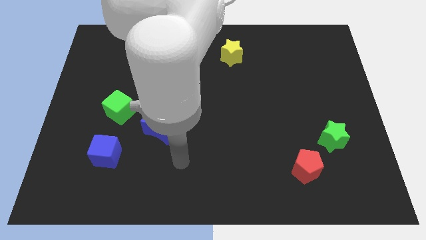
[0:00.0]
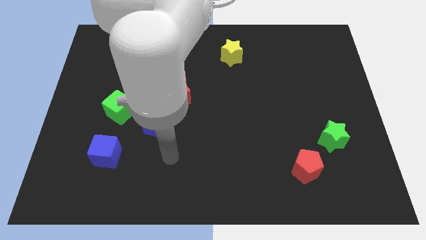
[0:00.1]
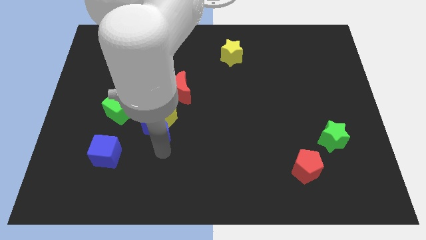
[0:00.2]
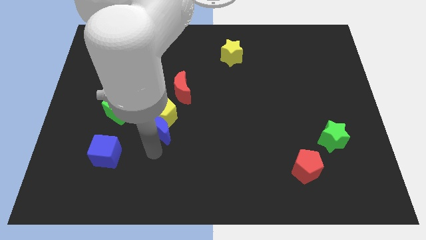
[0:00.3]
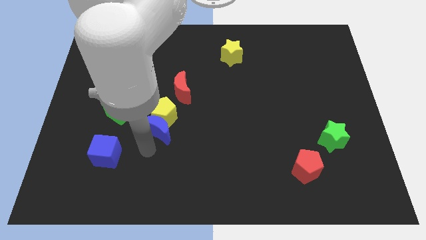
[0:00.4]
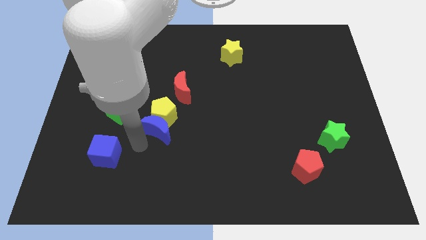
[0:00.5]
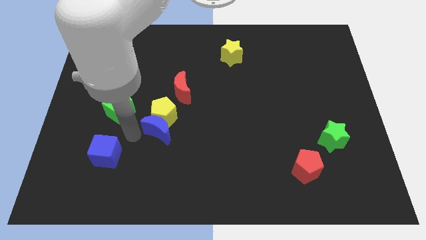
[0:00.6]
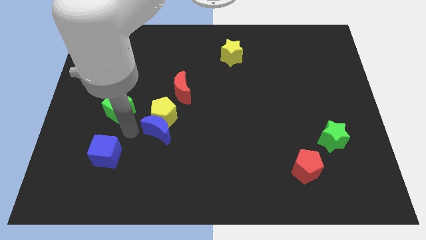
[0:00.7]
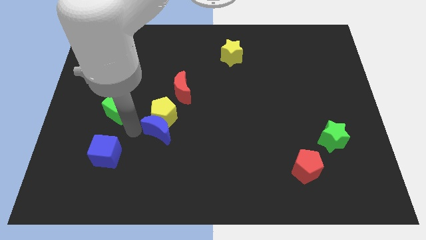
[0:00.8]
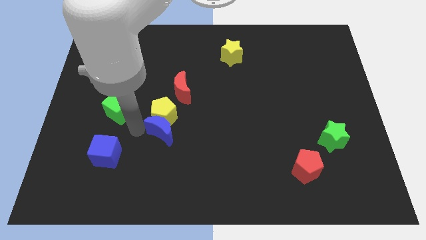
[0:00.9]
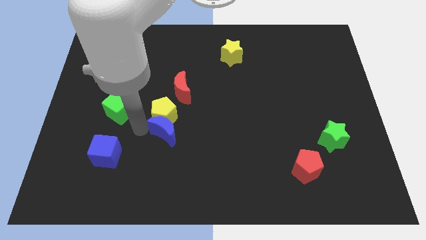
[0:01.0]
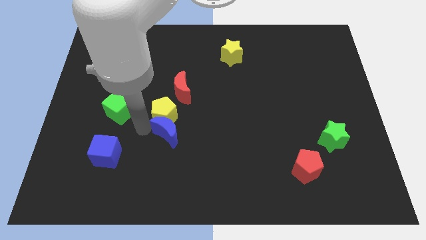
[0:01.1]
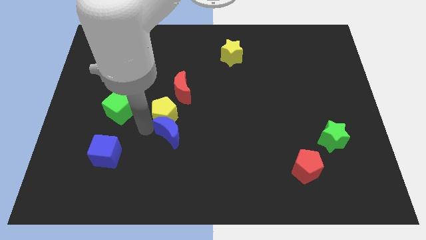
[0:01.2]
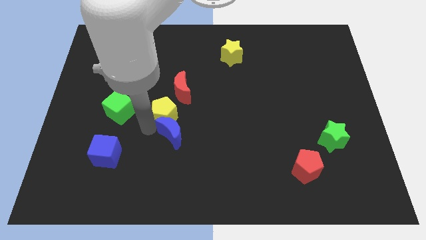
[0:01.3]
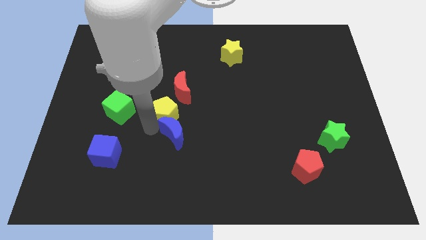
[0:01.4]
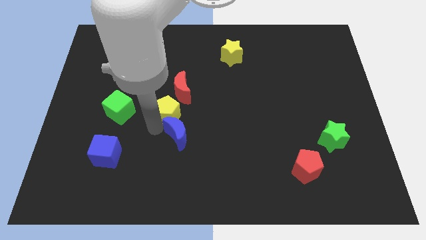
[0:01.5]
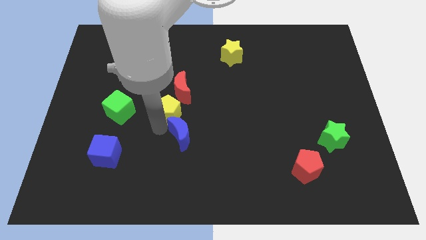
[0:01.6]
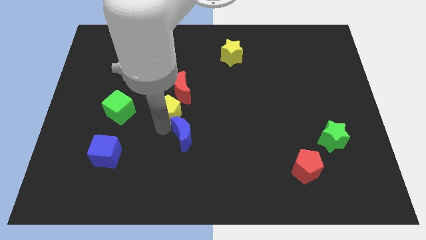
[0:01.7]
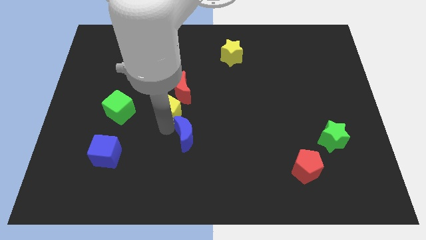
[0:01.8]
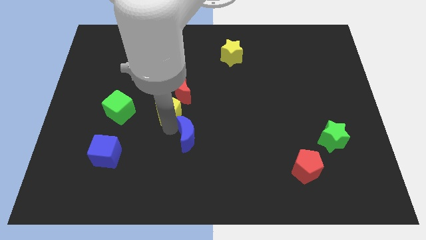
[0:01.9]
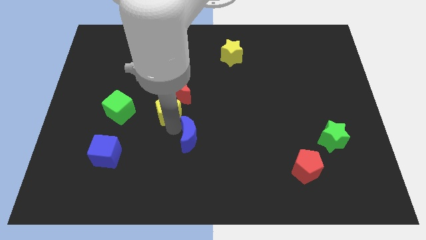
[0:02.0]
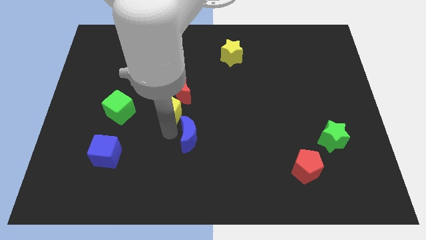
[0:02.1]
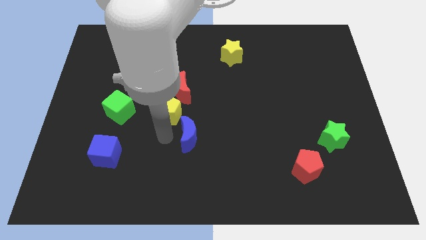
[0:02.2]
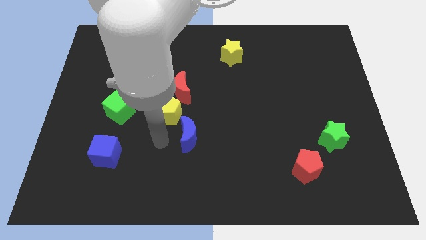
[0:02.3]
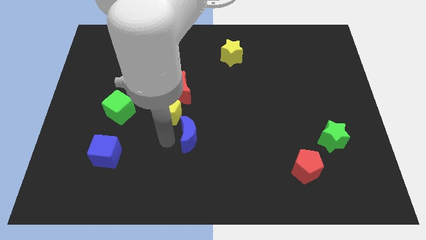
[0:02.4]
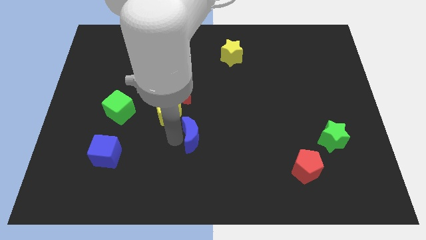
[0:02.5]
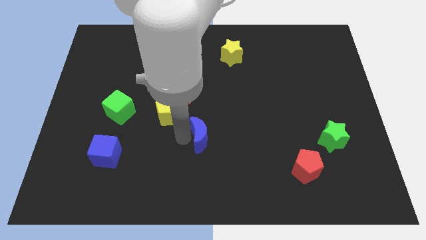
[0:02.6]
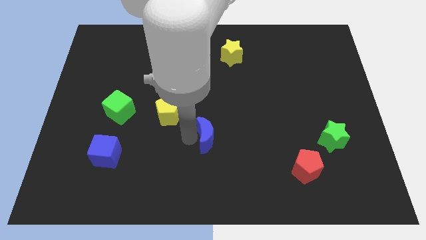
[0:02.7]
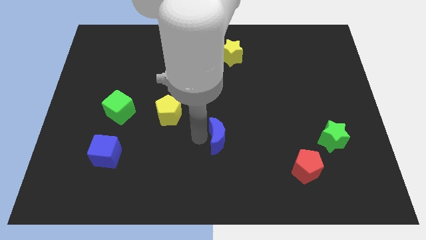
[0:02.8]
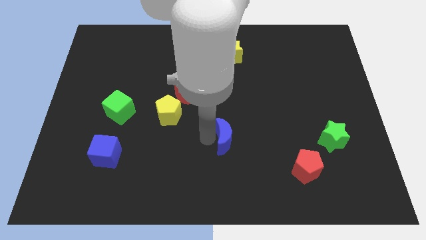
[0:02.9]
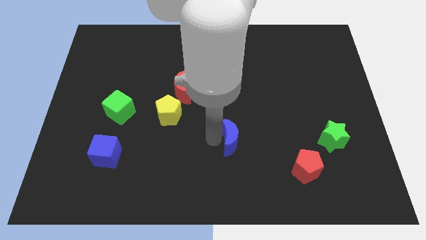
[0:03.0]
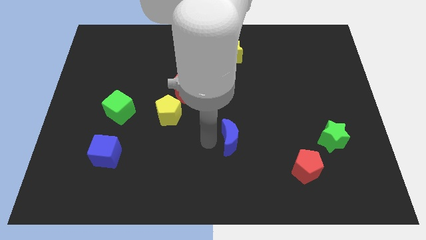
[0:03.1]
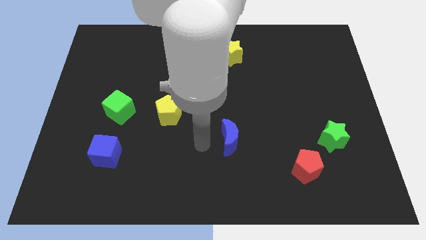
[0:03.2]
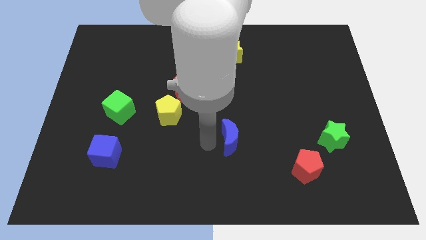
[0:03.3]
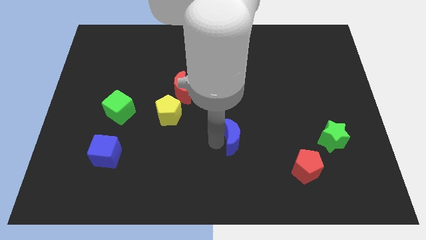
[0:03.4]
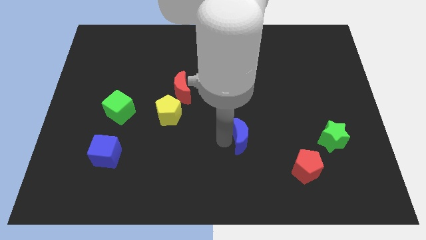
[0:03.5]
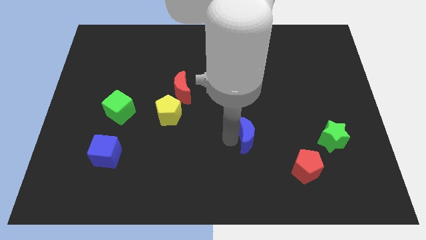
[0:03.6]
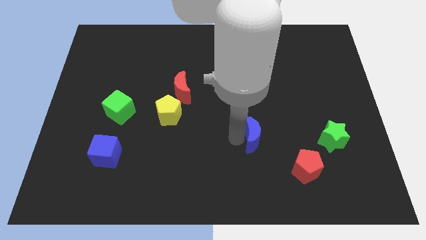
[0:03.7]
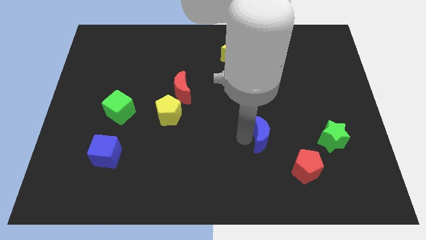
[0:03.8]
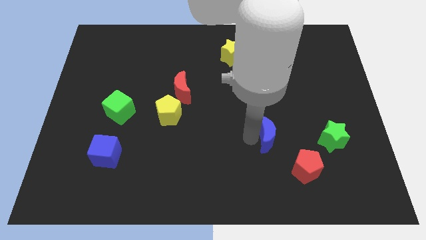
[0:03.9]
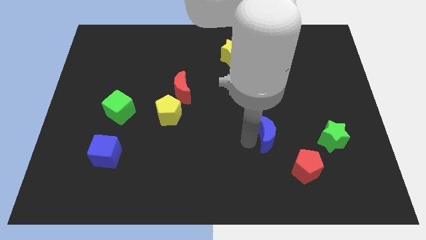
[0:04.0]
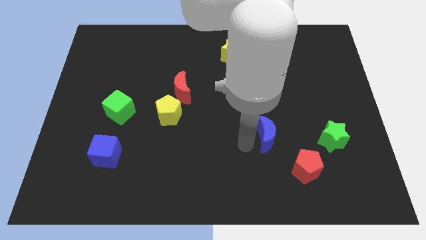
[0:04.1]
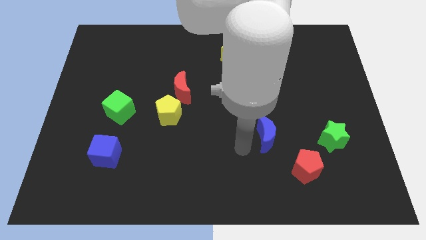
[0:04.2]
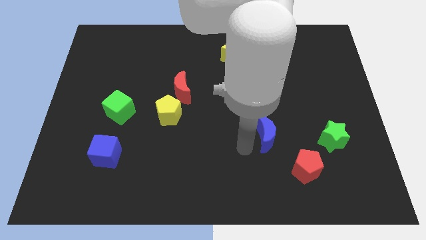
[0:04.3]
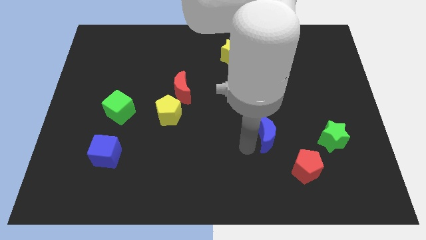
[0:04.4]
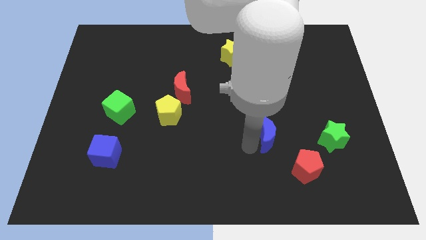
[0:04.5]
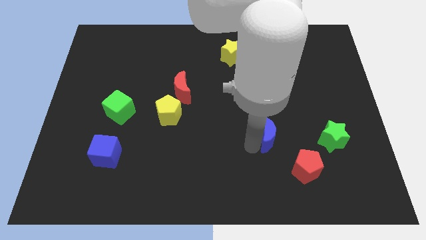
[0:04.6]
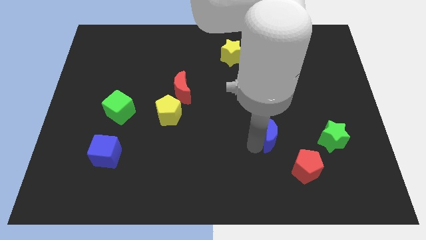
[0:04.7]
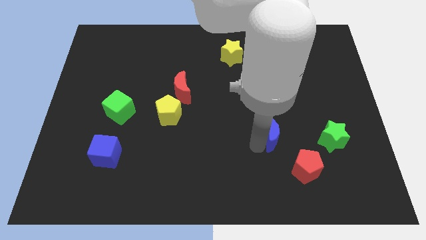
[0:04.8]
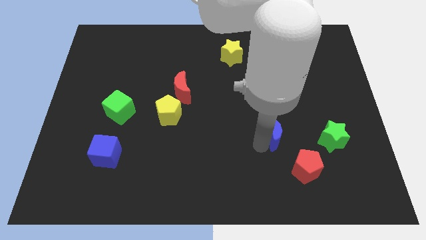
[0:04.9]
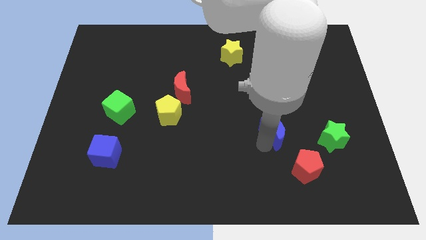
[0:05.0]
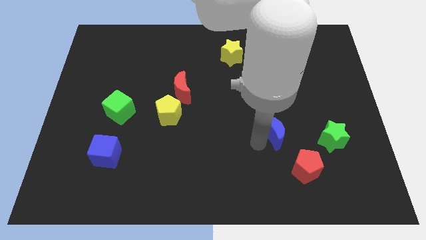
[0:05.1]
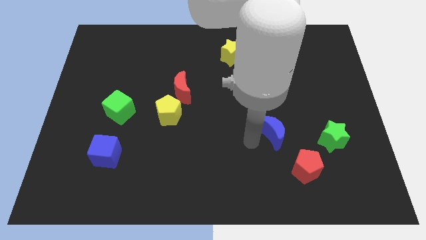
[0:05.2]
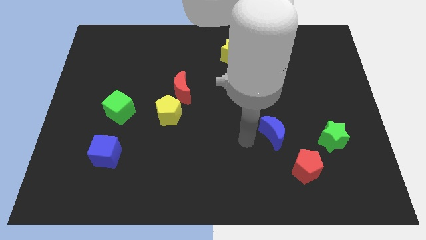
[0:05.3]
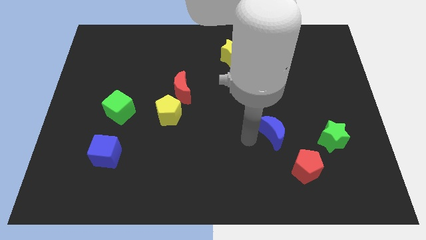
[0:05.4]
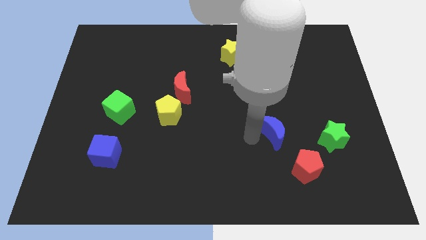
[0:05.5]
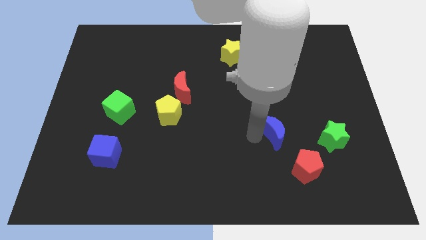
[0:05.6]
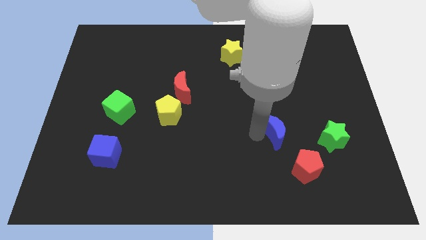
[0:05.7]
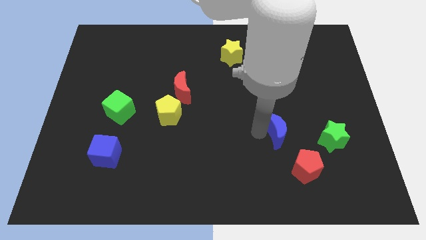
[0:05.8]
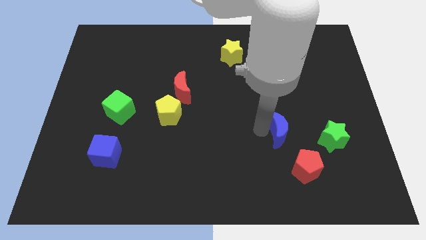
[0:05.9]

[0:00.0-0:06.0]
put the blue moon to the top side of the red pentagon

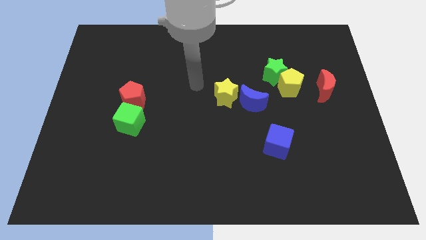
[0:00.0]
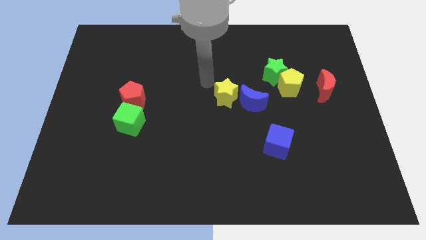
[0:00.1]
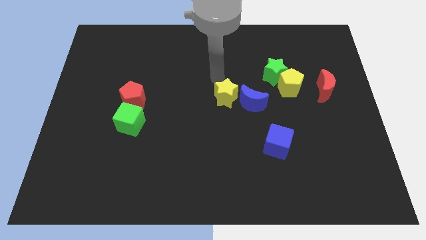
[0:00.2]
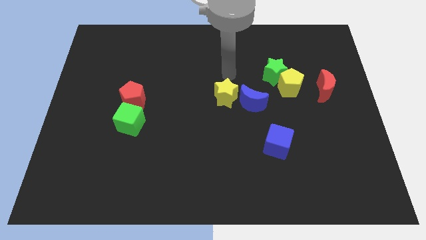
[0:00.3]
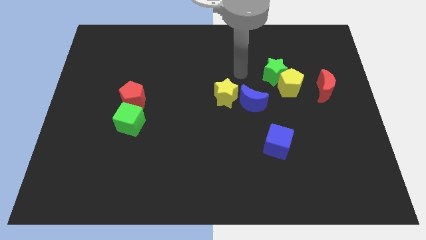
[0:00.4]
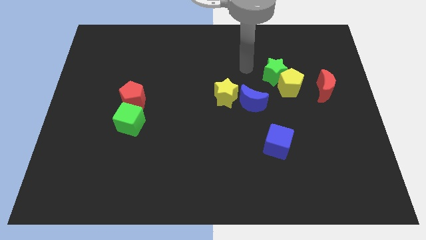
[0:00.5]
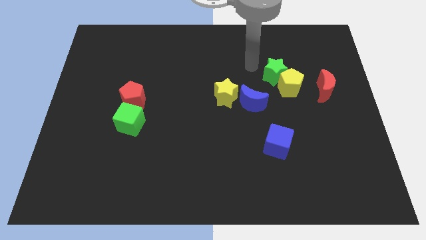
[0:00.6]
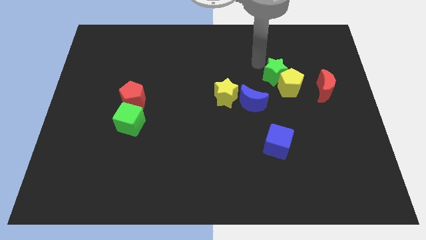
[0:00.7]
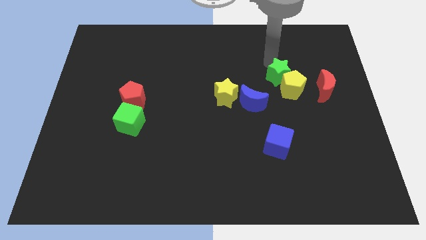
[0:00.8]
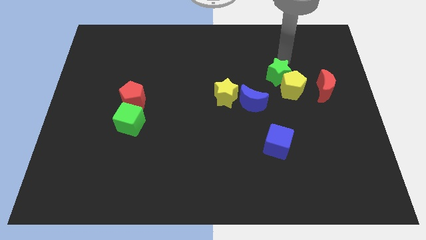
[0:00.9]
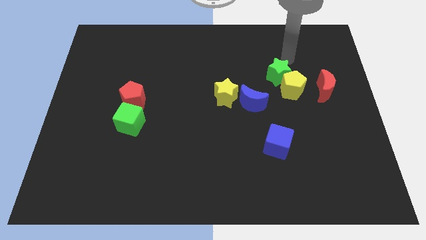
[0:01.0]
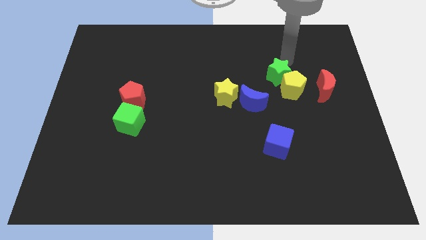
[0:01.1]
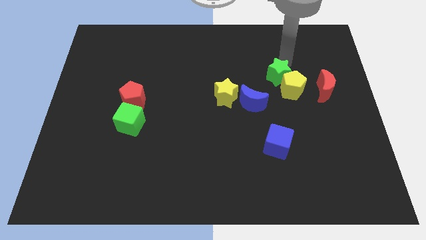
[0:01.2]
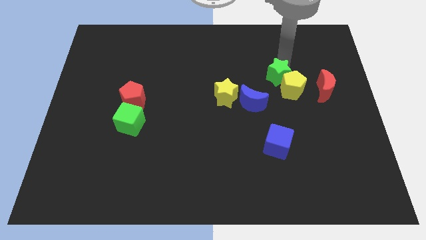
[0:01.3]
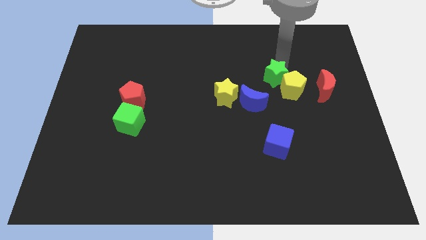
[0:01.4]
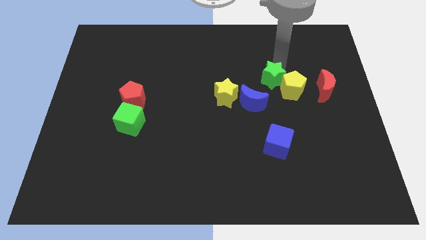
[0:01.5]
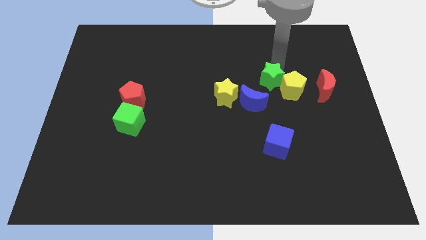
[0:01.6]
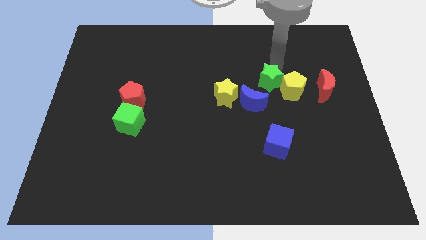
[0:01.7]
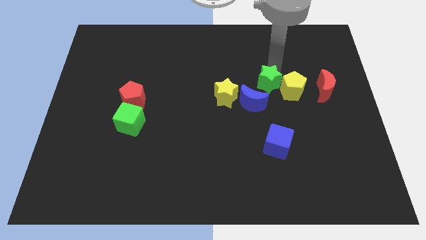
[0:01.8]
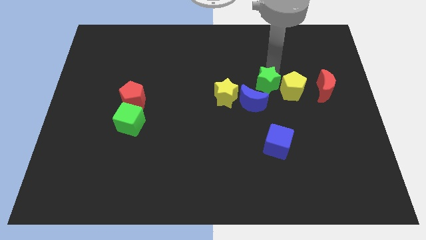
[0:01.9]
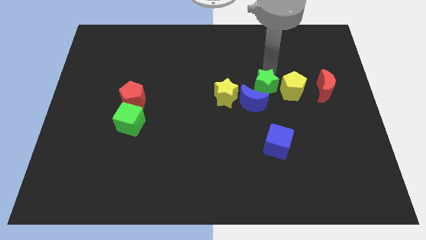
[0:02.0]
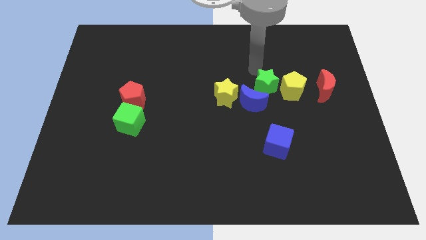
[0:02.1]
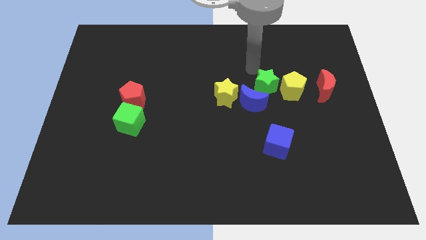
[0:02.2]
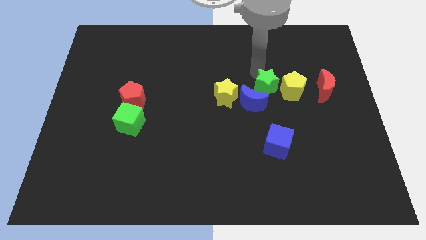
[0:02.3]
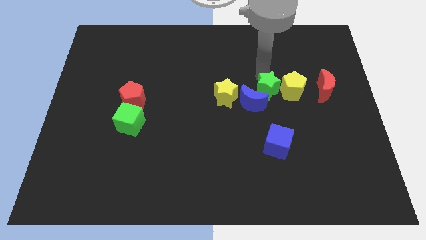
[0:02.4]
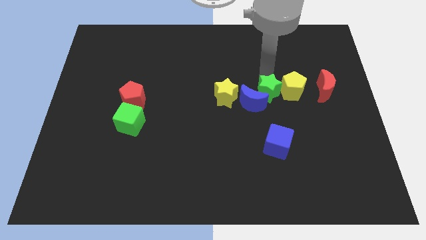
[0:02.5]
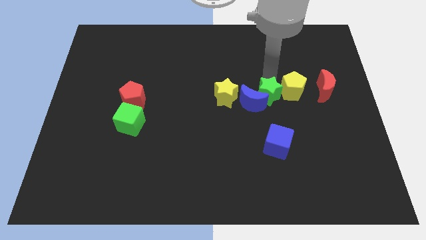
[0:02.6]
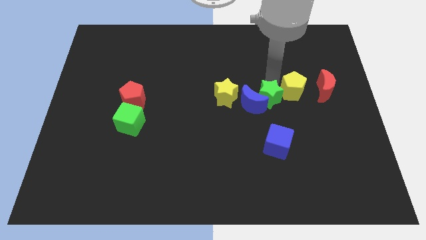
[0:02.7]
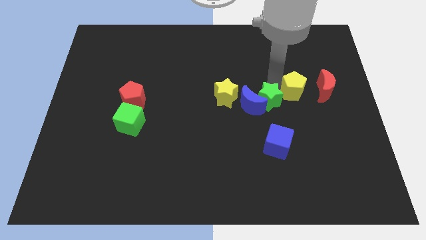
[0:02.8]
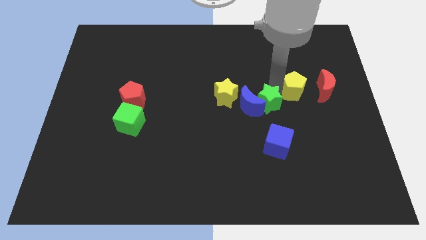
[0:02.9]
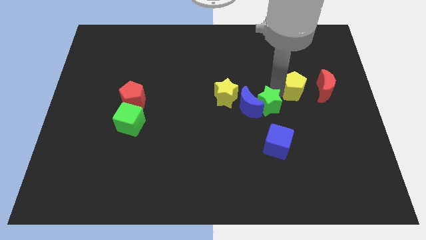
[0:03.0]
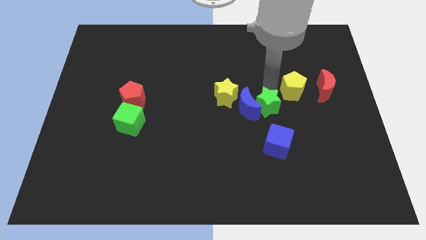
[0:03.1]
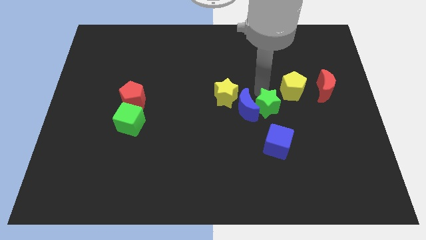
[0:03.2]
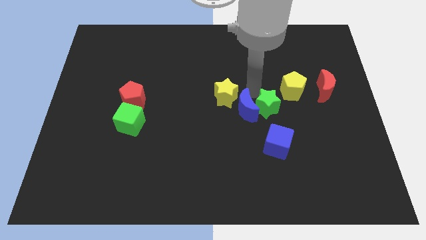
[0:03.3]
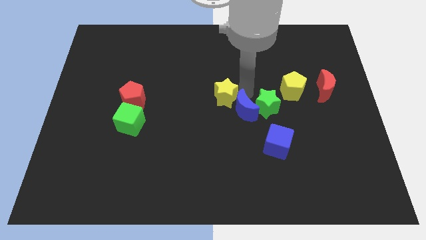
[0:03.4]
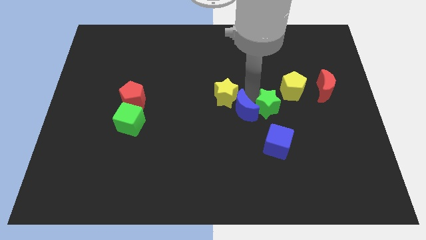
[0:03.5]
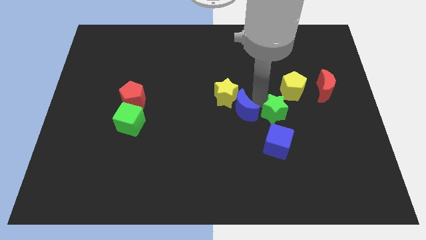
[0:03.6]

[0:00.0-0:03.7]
move the green star to the bottom of the yellow pentagon
